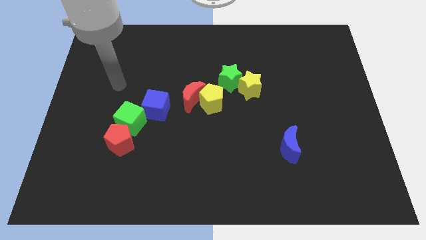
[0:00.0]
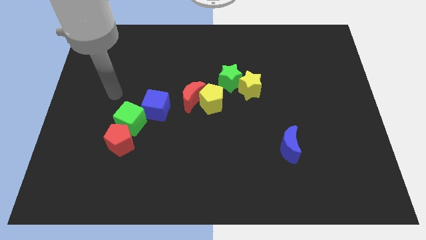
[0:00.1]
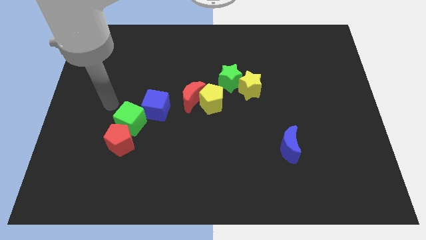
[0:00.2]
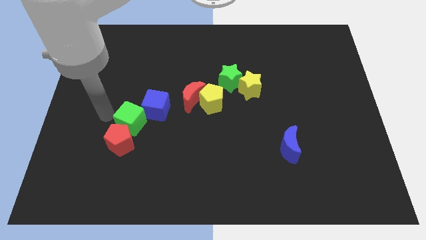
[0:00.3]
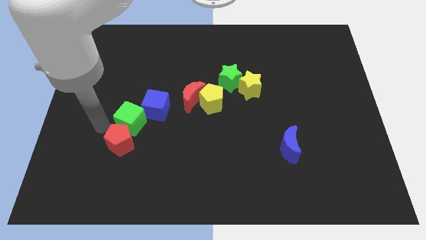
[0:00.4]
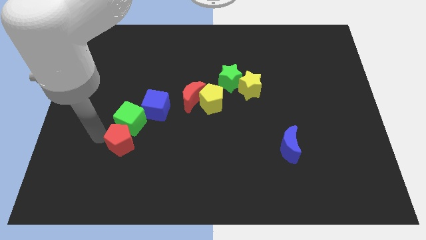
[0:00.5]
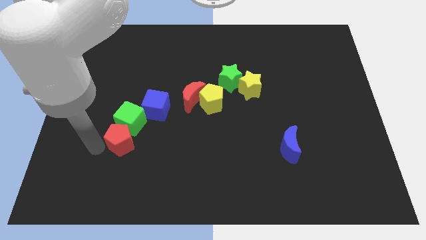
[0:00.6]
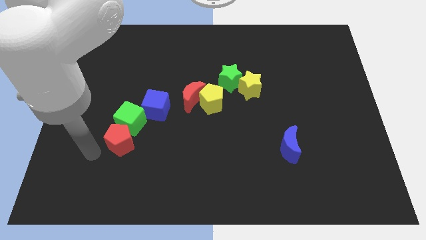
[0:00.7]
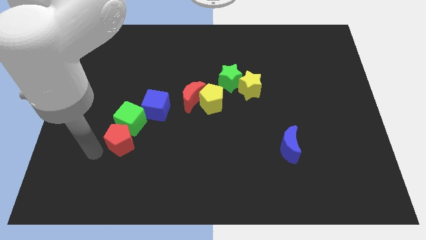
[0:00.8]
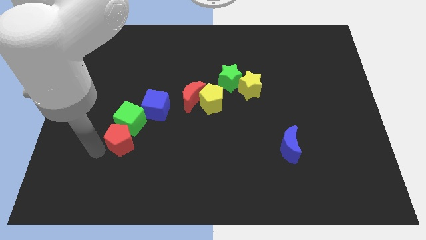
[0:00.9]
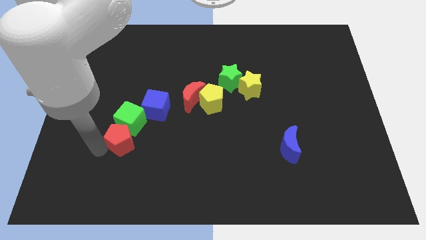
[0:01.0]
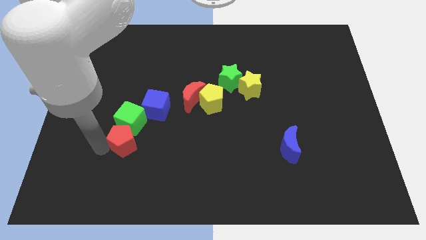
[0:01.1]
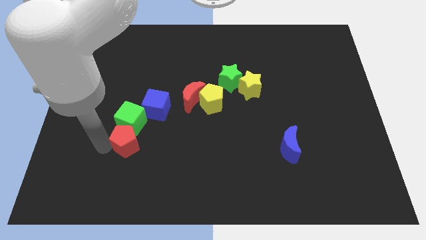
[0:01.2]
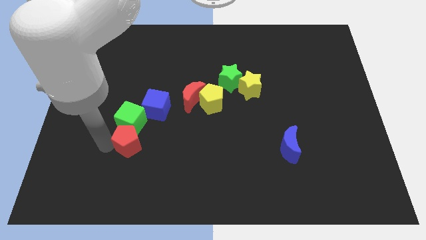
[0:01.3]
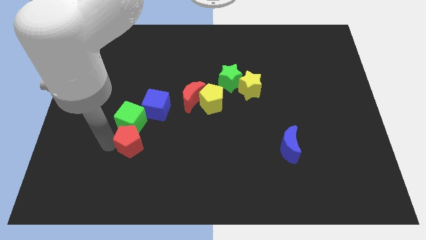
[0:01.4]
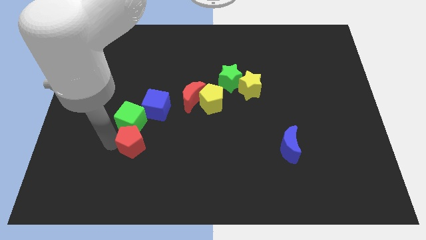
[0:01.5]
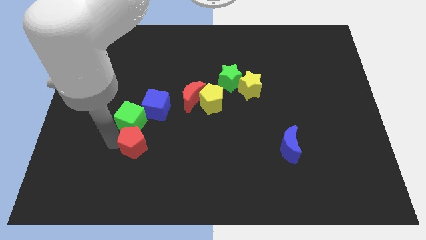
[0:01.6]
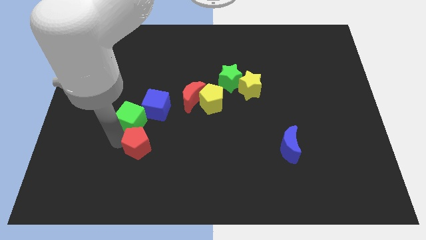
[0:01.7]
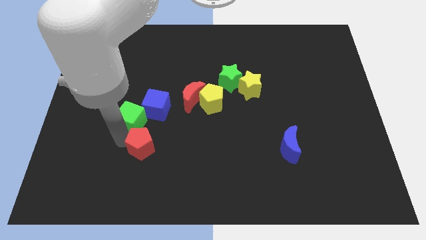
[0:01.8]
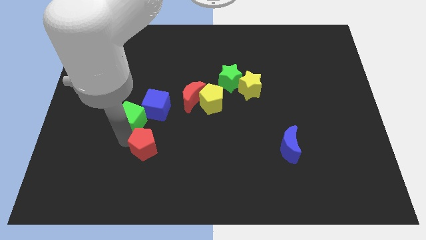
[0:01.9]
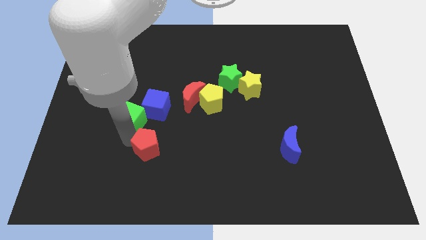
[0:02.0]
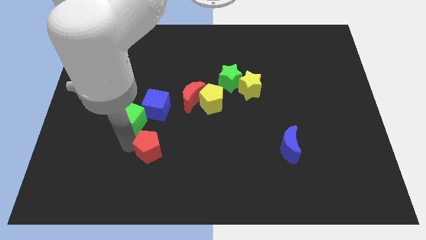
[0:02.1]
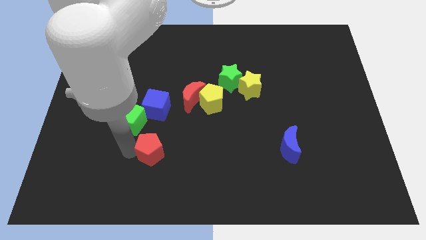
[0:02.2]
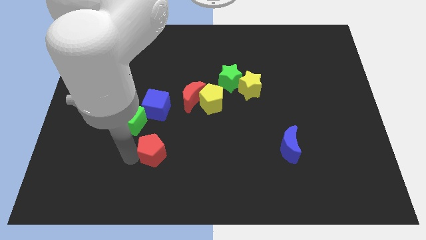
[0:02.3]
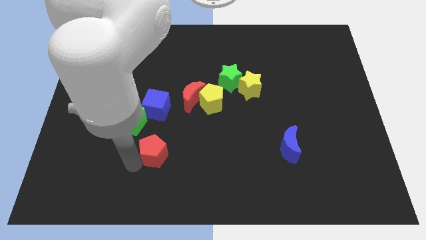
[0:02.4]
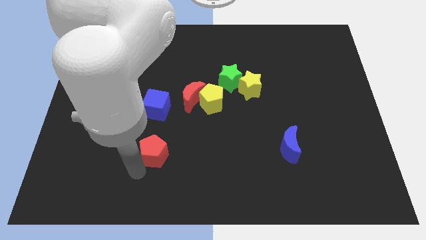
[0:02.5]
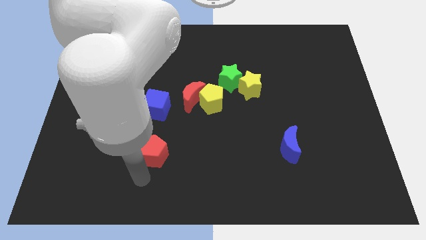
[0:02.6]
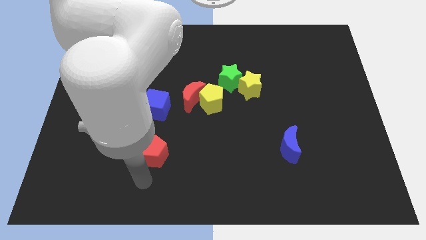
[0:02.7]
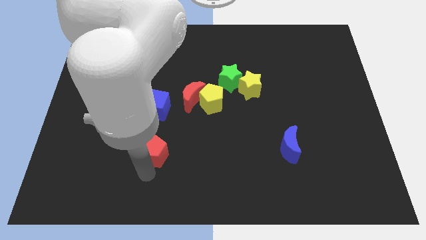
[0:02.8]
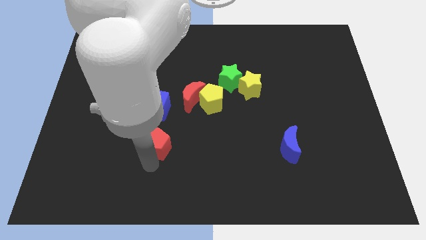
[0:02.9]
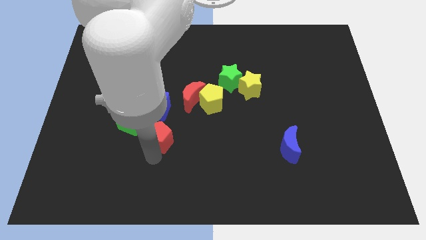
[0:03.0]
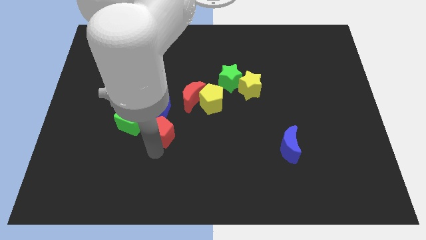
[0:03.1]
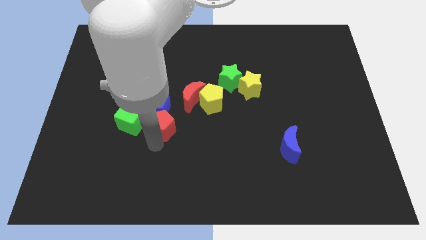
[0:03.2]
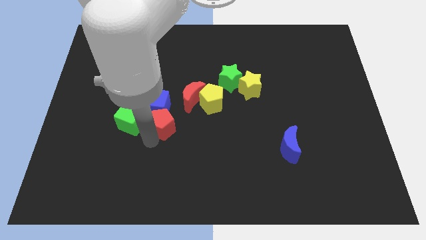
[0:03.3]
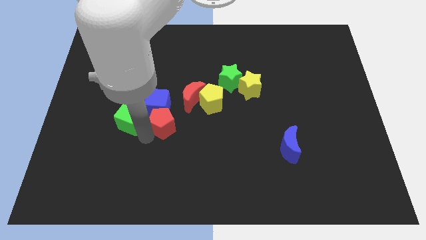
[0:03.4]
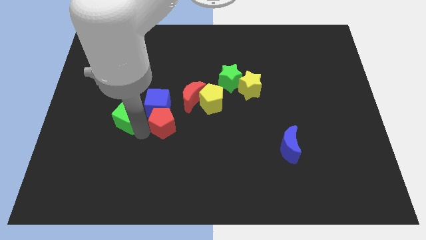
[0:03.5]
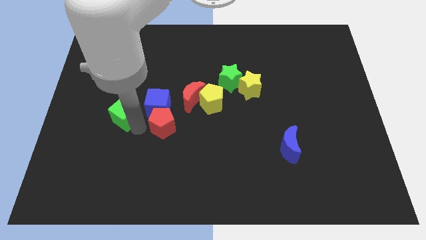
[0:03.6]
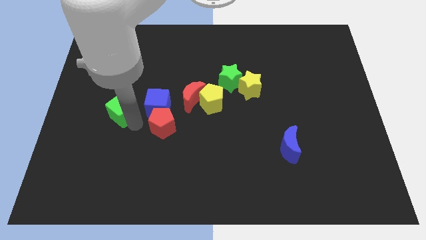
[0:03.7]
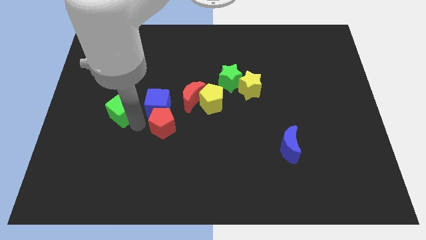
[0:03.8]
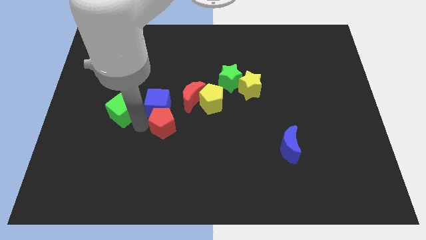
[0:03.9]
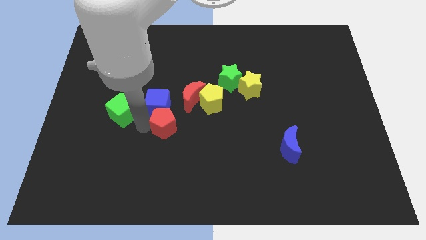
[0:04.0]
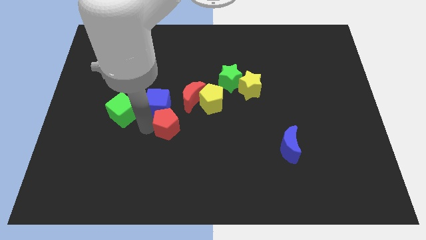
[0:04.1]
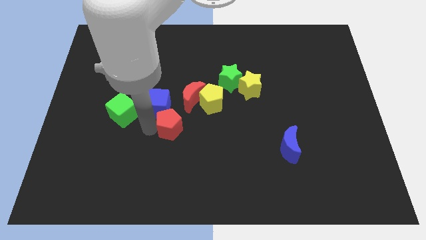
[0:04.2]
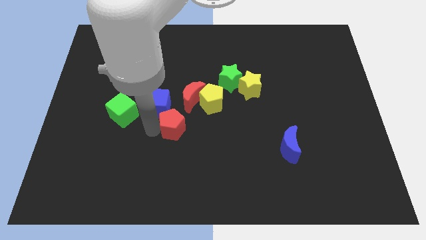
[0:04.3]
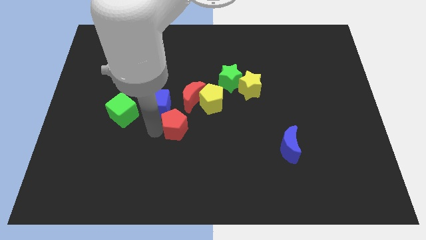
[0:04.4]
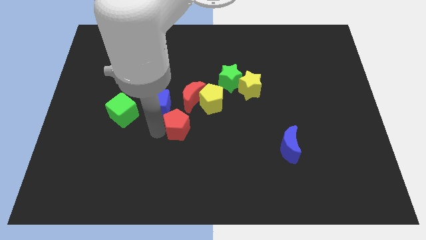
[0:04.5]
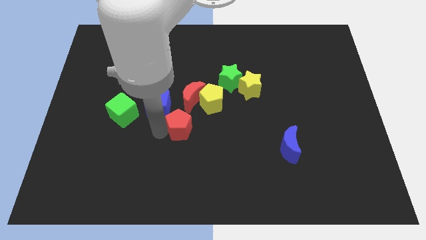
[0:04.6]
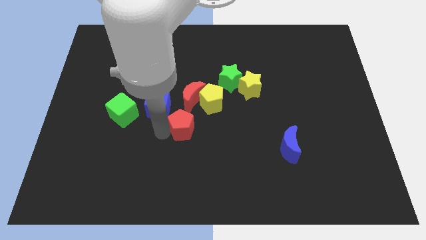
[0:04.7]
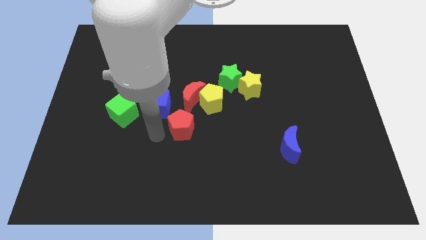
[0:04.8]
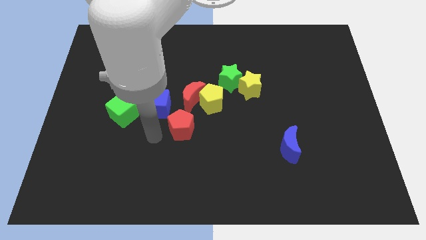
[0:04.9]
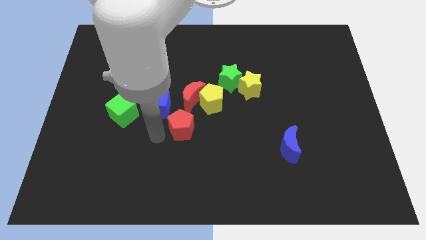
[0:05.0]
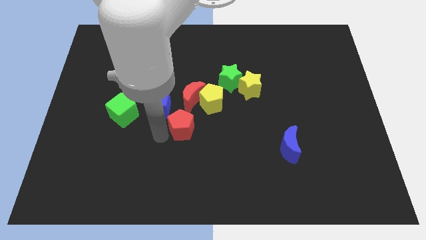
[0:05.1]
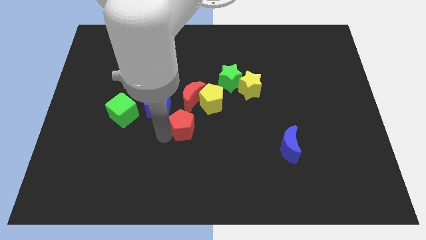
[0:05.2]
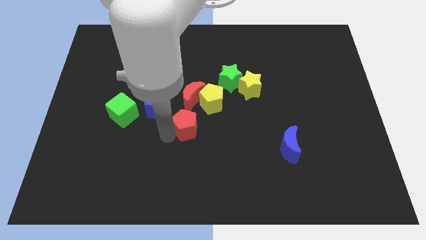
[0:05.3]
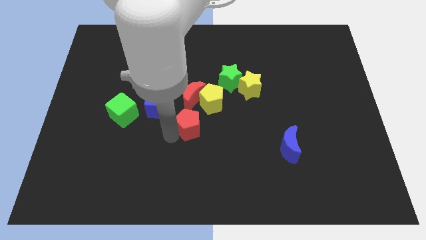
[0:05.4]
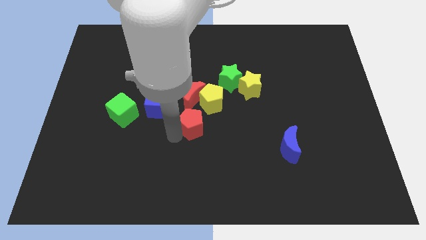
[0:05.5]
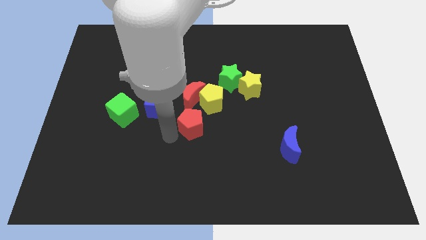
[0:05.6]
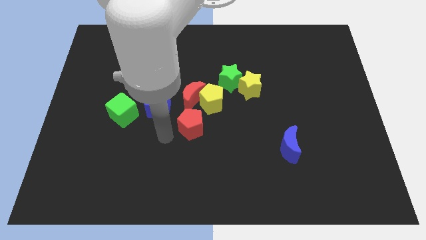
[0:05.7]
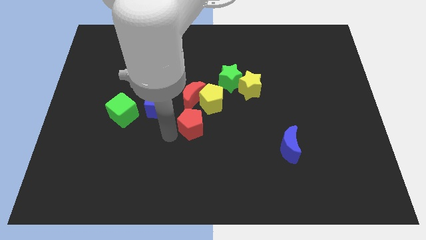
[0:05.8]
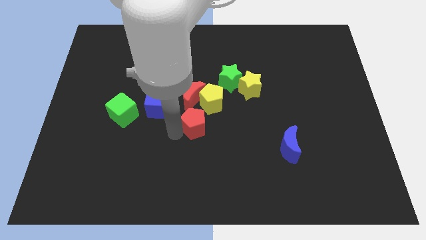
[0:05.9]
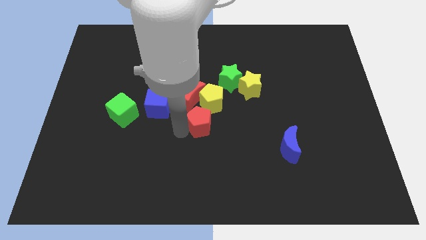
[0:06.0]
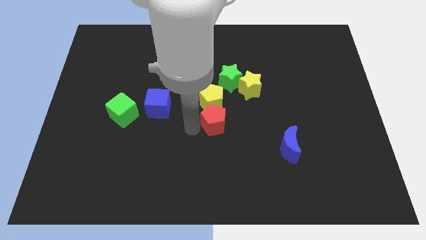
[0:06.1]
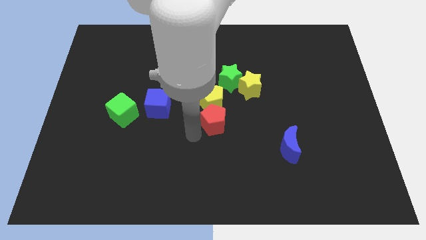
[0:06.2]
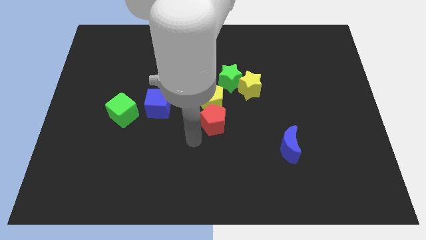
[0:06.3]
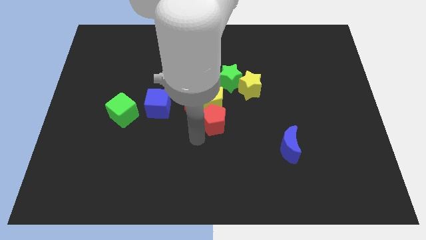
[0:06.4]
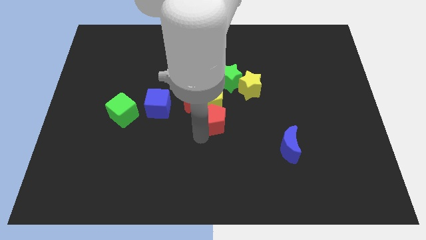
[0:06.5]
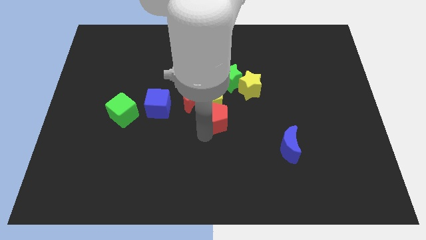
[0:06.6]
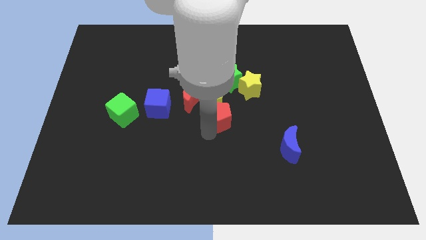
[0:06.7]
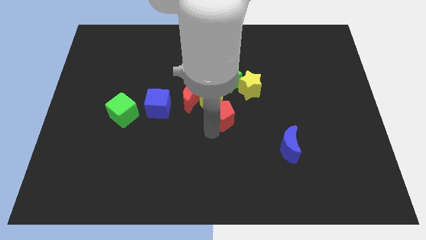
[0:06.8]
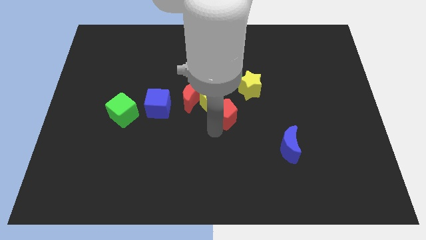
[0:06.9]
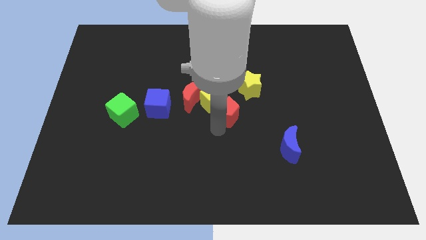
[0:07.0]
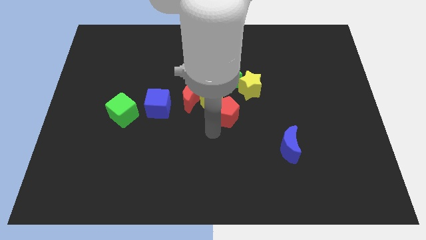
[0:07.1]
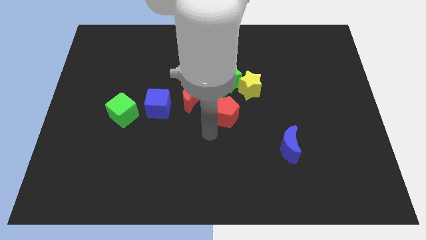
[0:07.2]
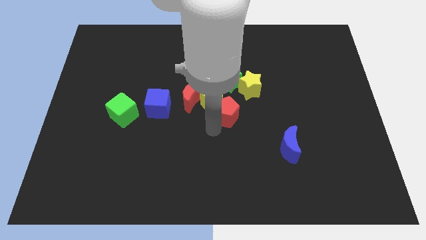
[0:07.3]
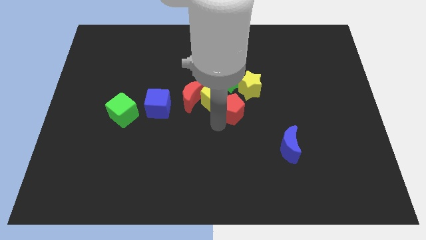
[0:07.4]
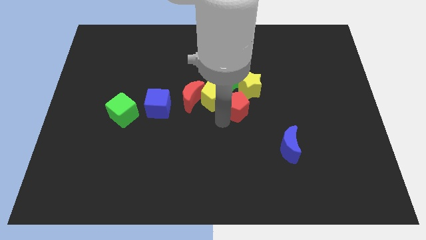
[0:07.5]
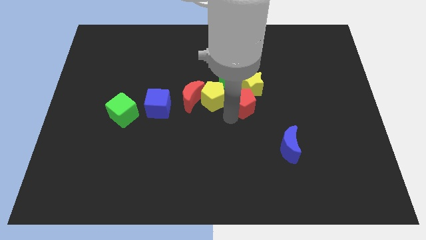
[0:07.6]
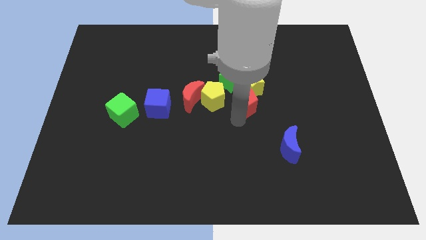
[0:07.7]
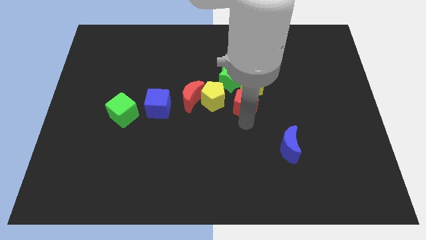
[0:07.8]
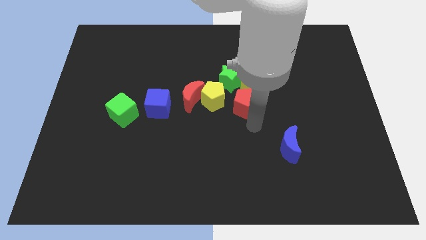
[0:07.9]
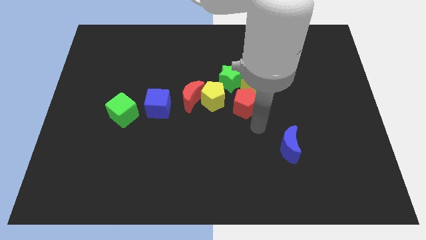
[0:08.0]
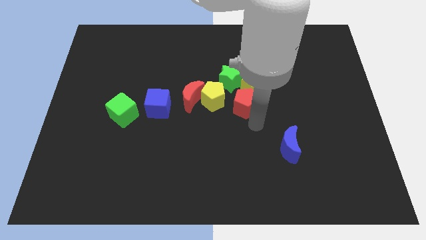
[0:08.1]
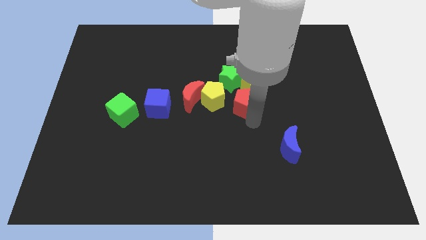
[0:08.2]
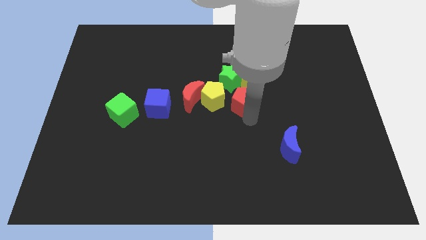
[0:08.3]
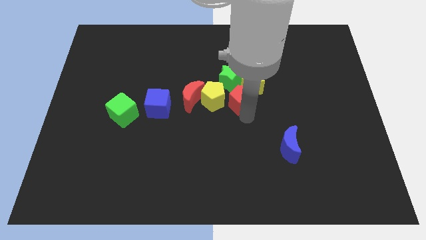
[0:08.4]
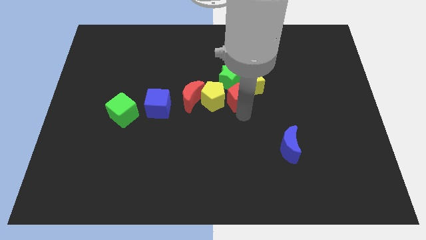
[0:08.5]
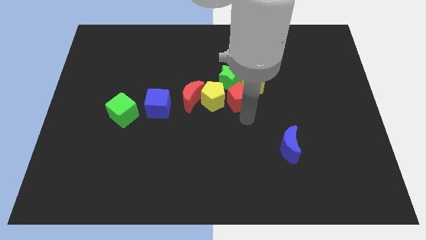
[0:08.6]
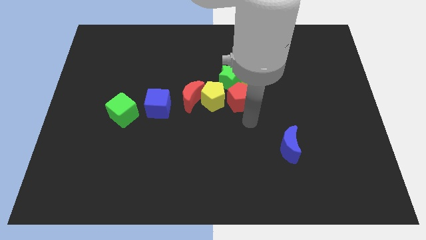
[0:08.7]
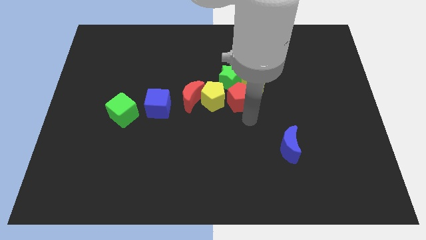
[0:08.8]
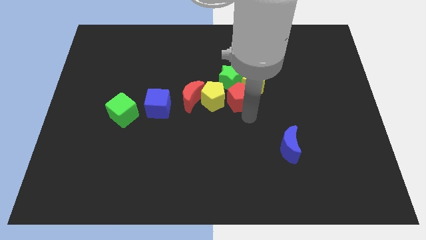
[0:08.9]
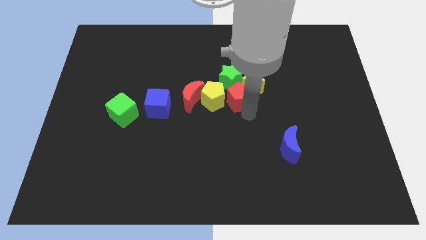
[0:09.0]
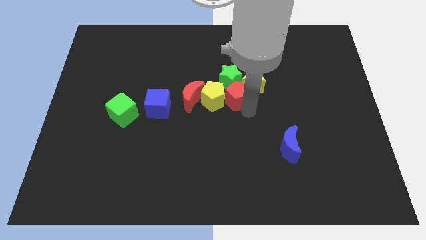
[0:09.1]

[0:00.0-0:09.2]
slide the red pentagon close to the green star
